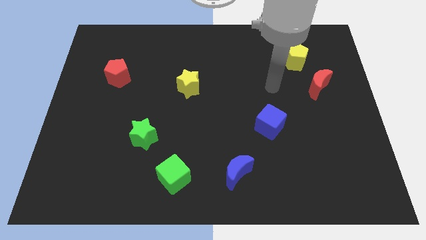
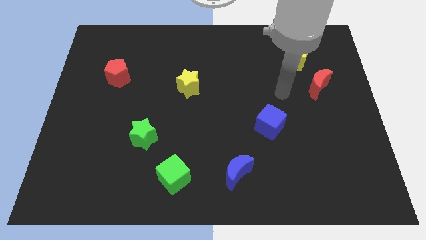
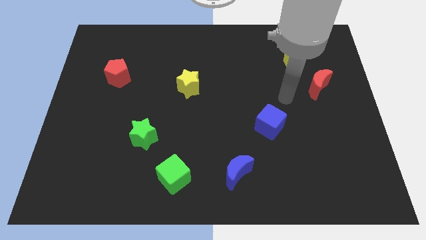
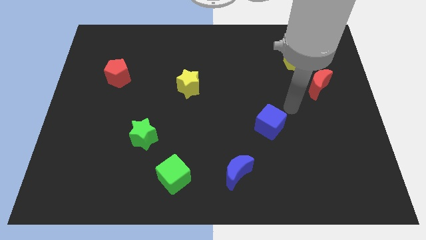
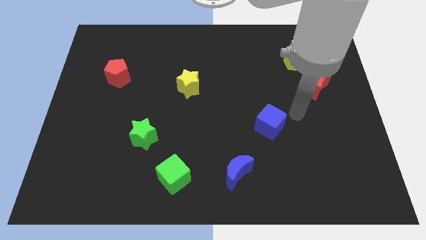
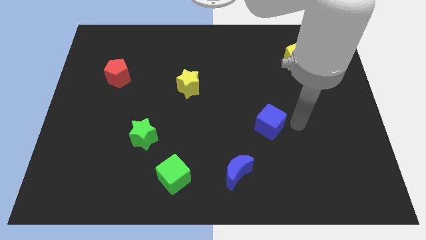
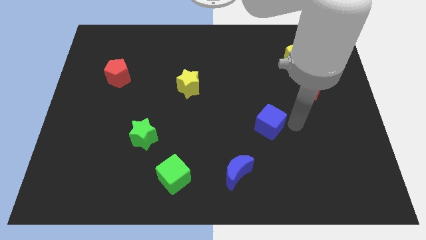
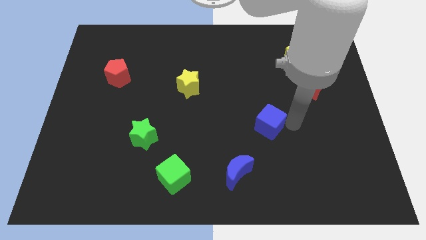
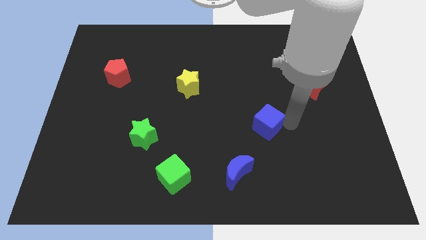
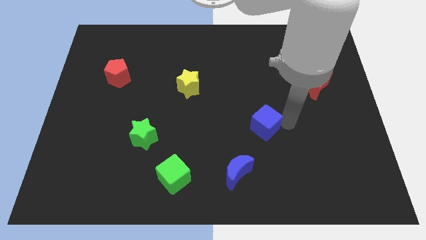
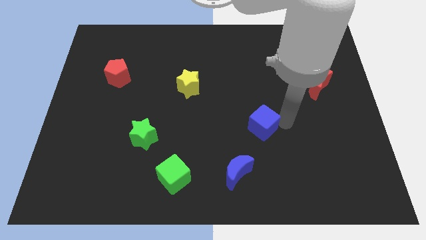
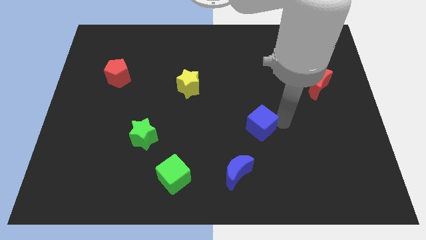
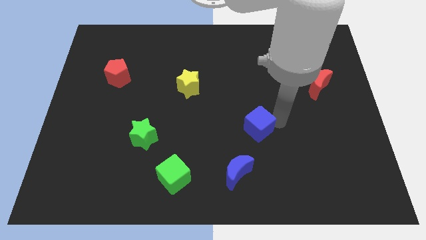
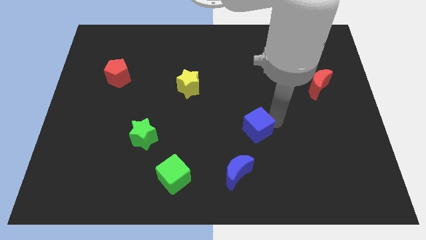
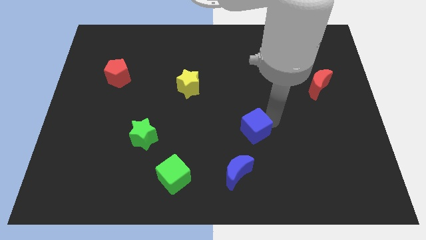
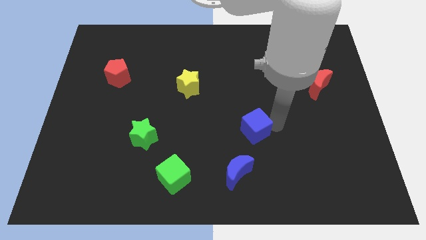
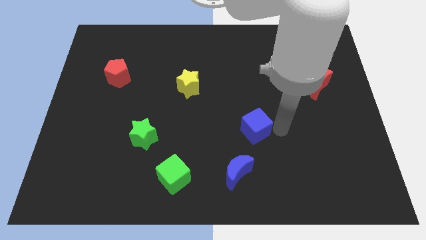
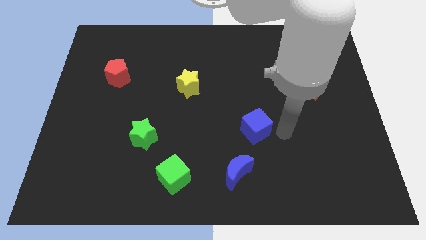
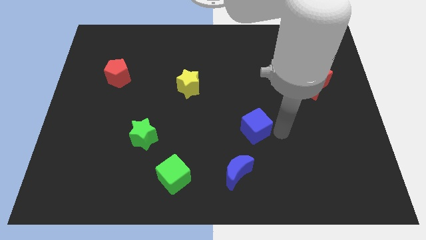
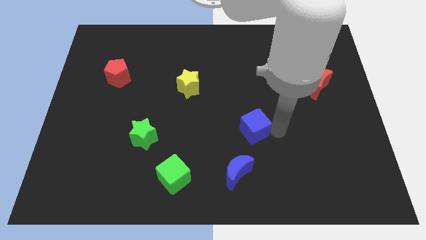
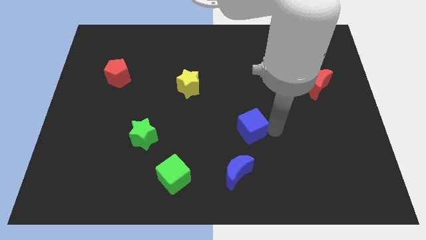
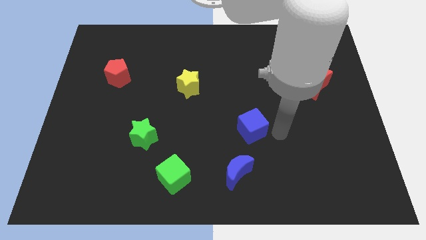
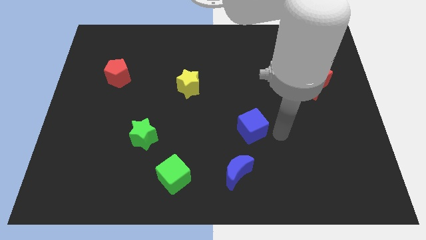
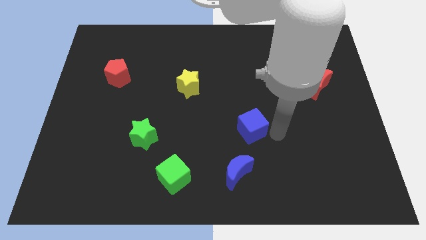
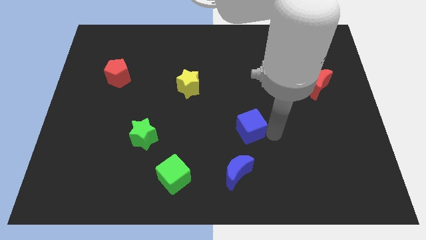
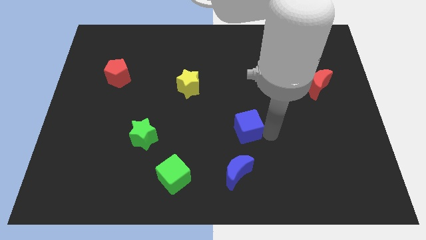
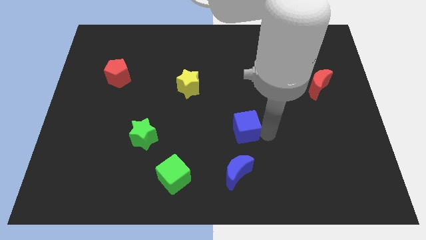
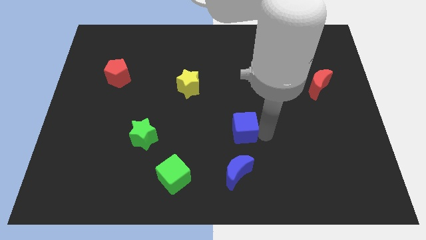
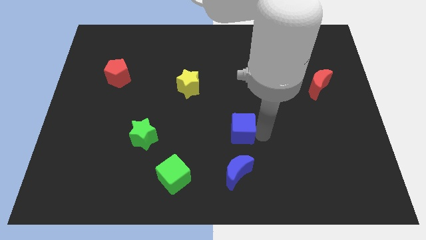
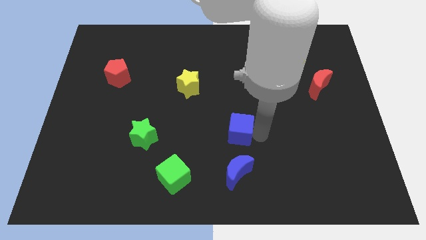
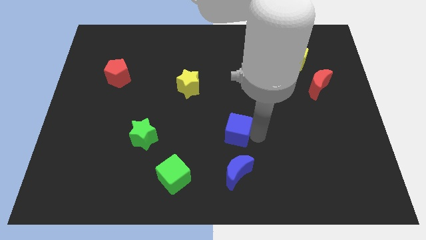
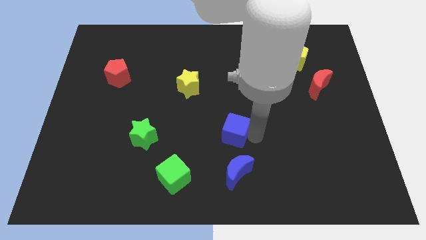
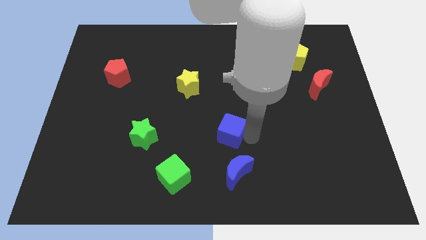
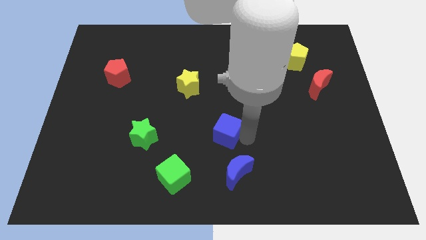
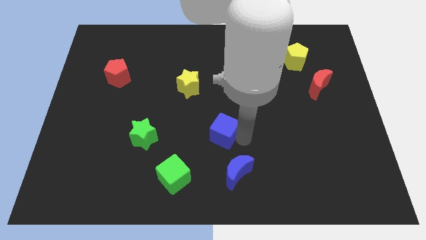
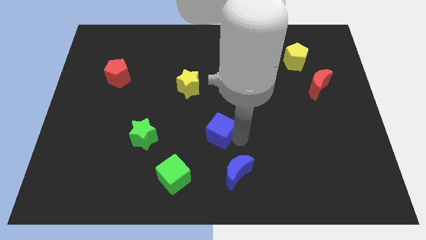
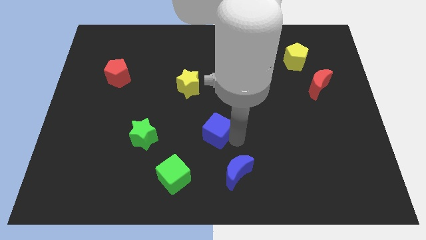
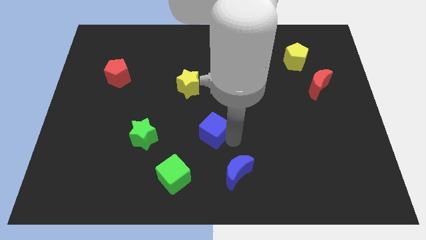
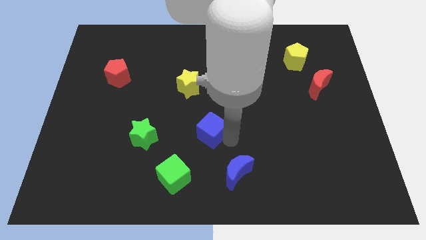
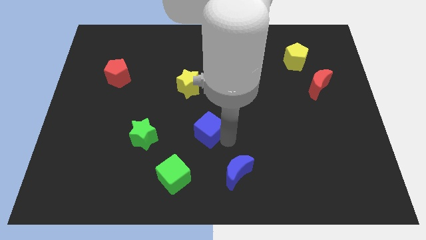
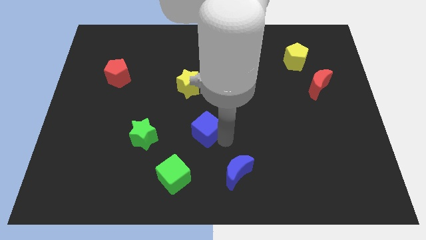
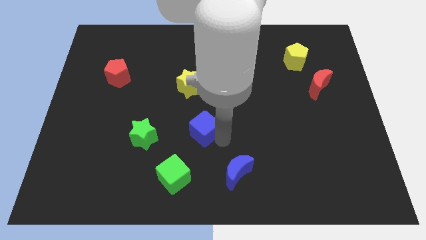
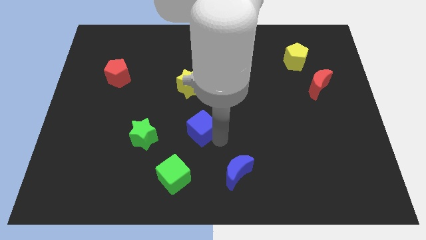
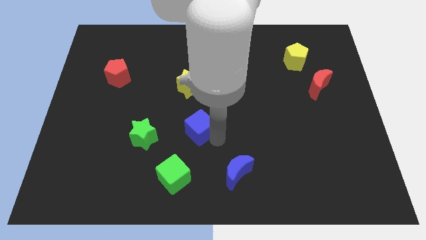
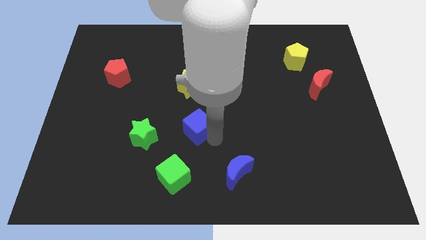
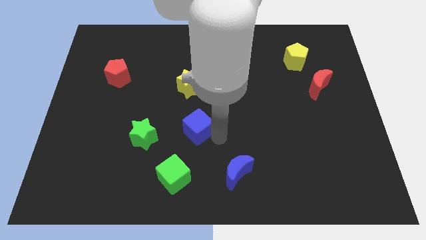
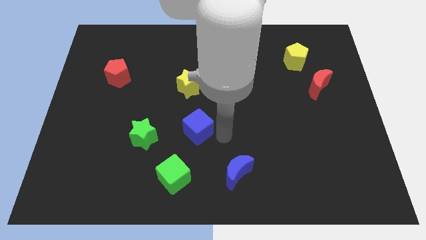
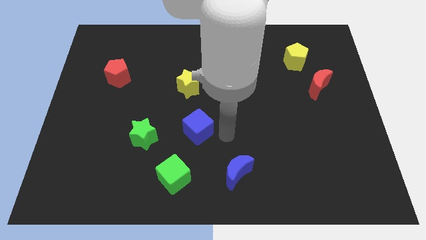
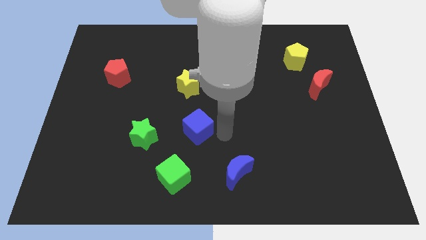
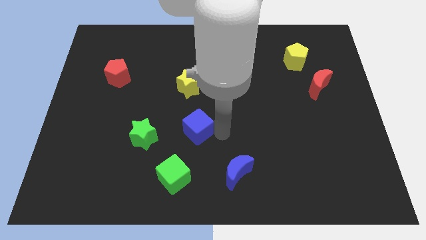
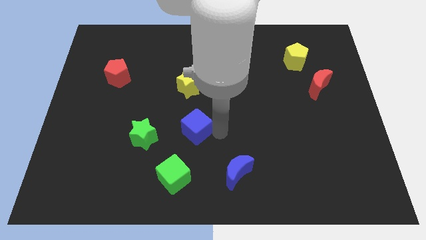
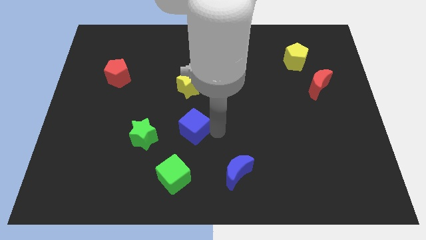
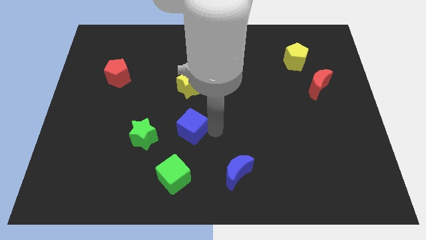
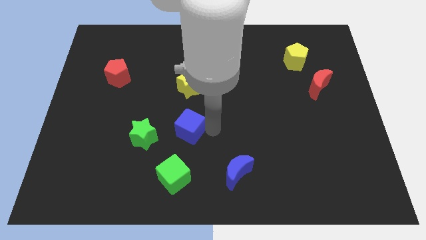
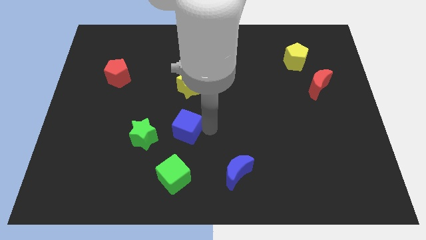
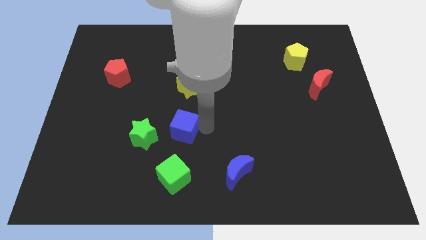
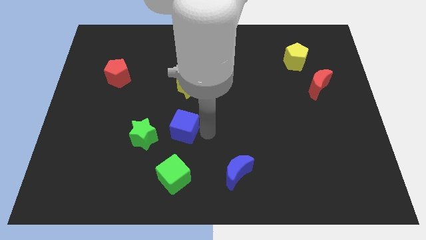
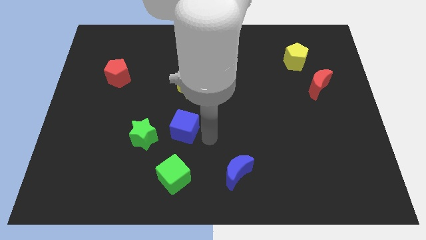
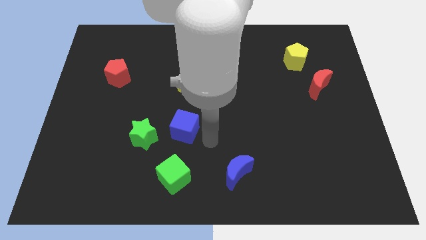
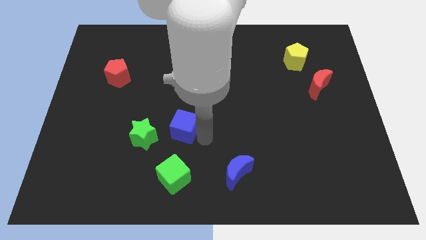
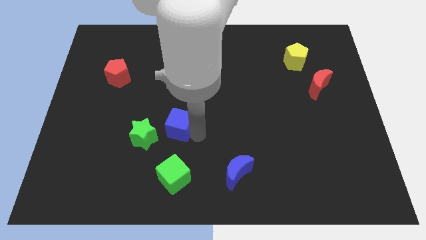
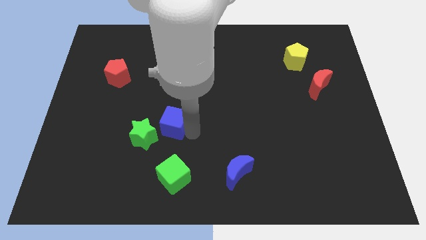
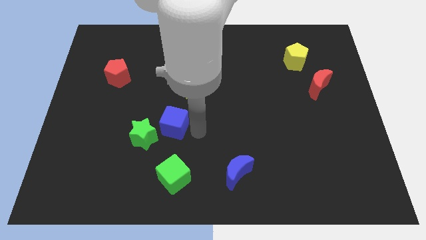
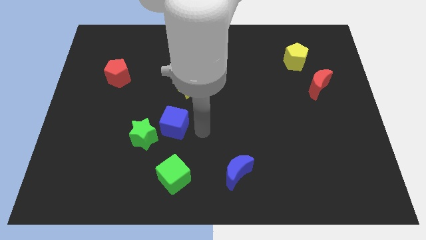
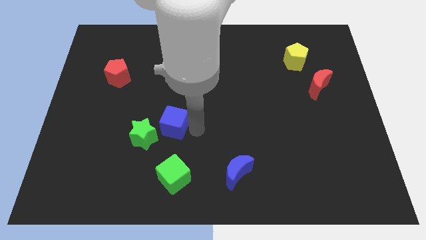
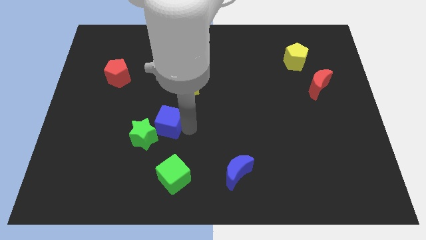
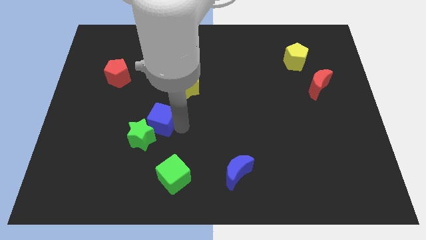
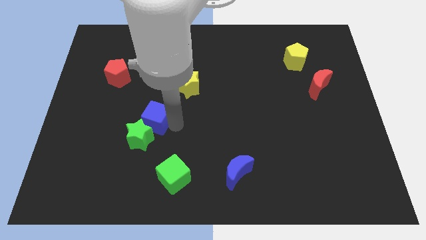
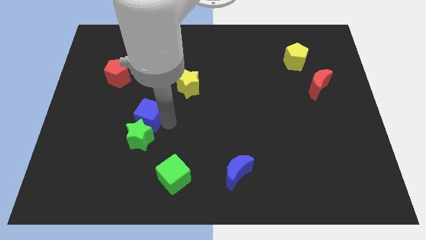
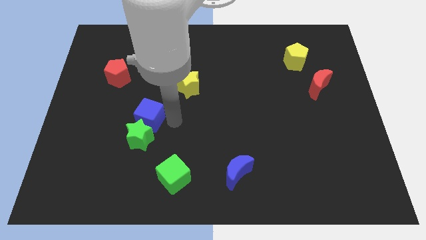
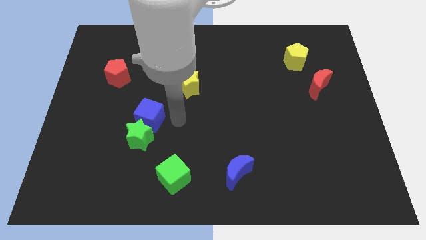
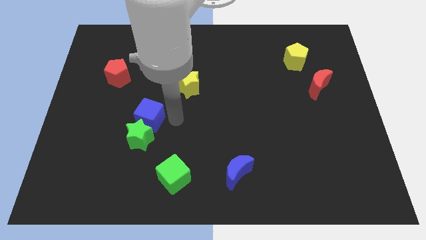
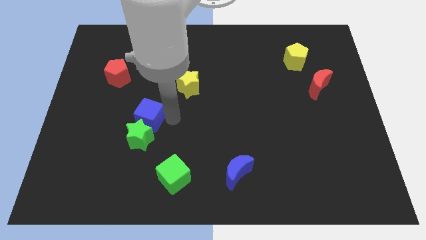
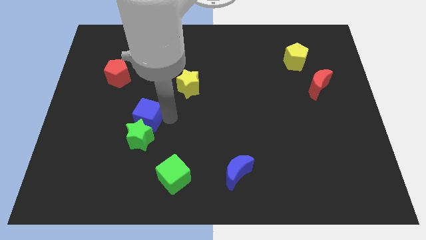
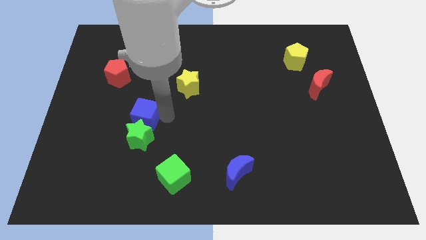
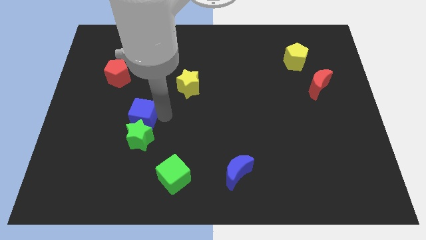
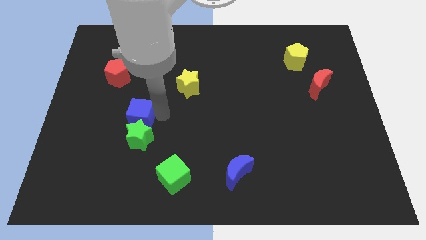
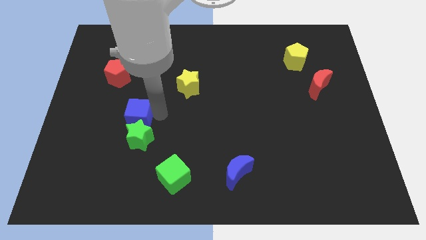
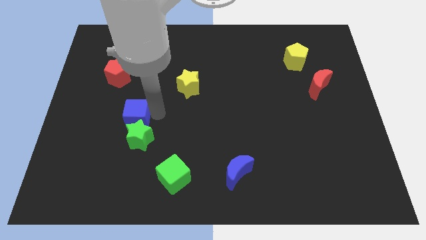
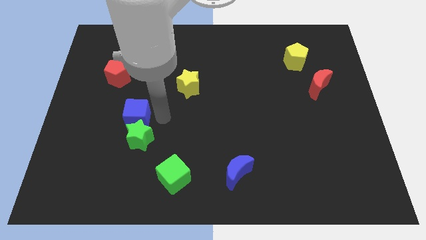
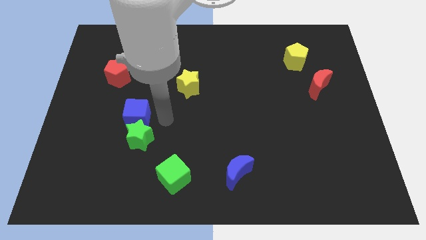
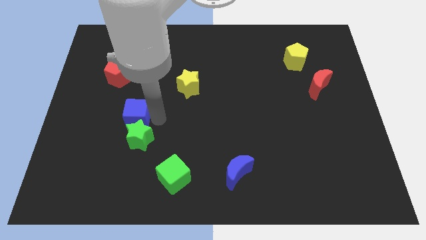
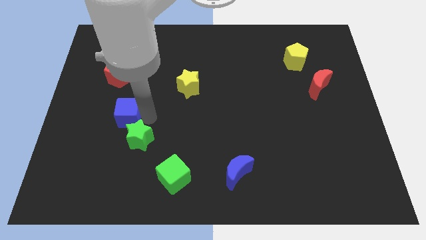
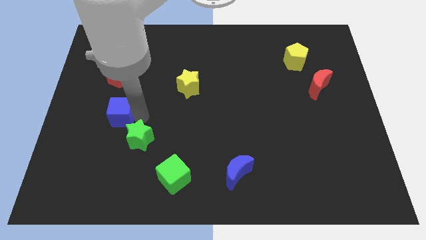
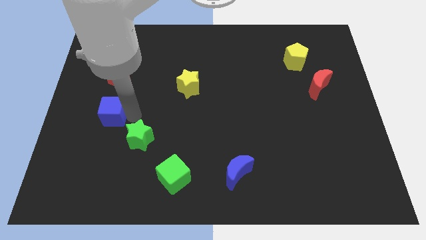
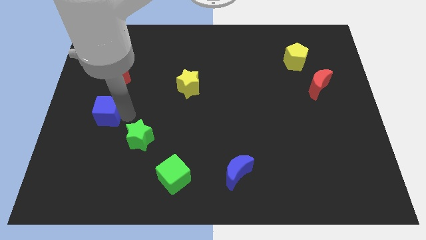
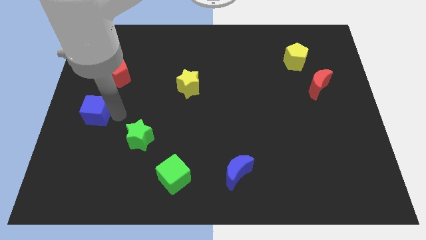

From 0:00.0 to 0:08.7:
slide the blue cube to the left side of the board
